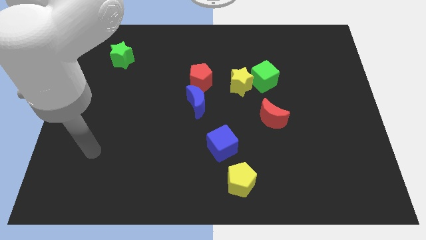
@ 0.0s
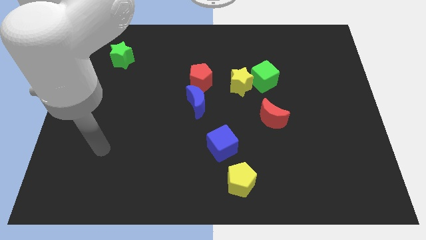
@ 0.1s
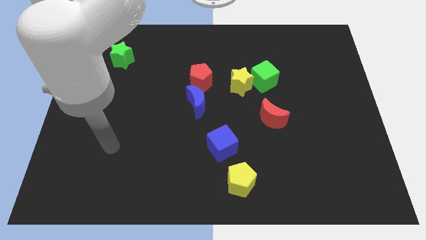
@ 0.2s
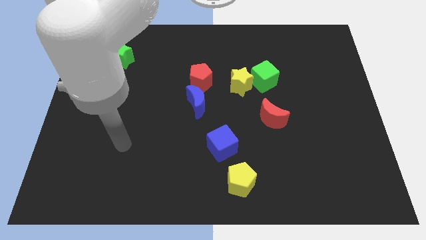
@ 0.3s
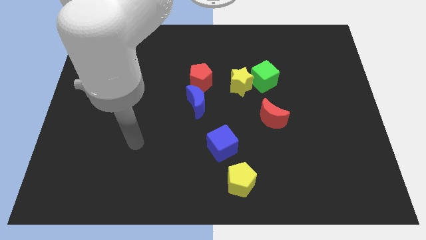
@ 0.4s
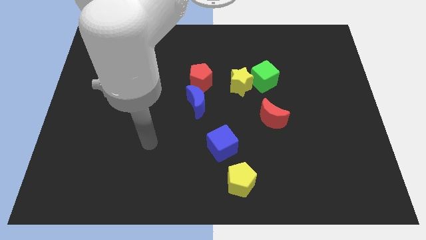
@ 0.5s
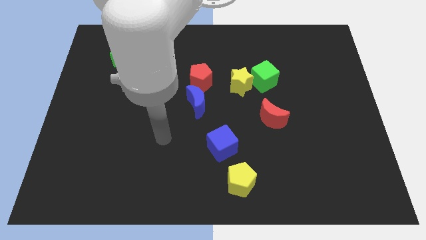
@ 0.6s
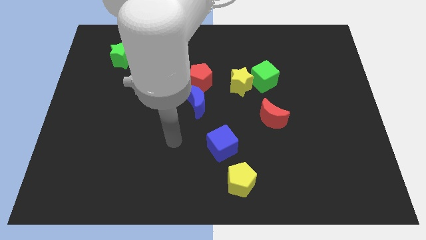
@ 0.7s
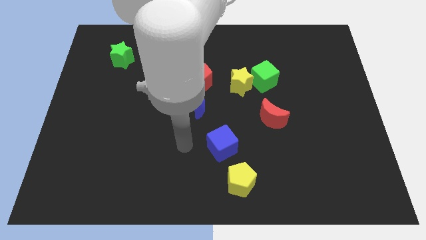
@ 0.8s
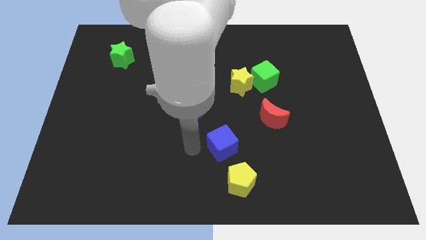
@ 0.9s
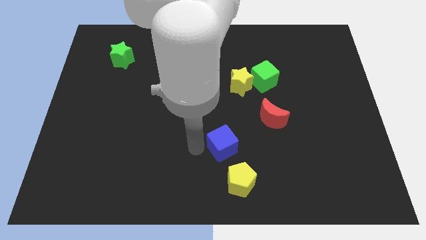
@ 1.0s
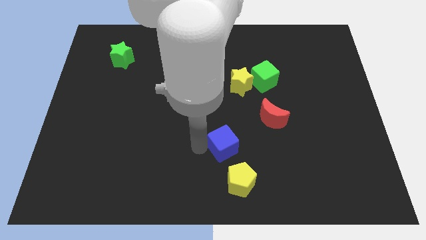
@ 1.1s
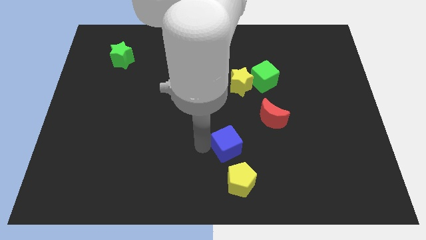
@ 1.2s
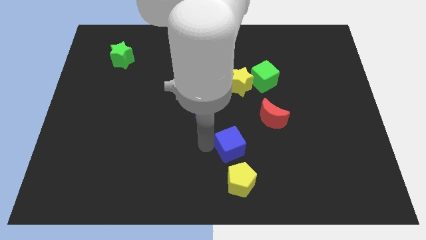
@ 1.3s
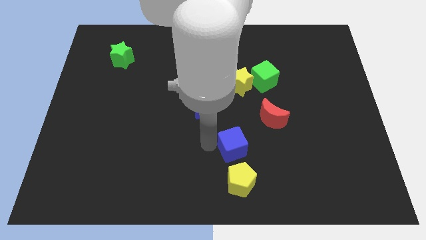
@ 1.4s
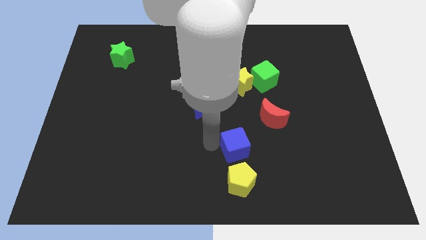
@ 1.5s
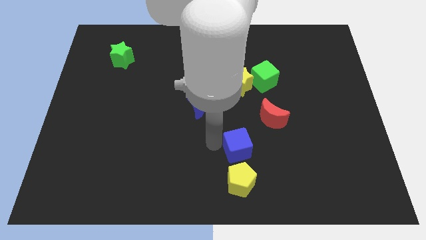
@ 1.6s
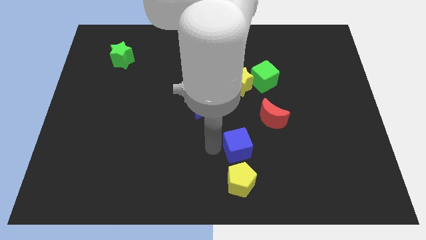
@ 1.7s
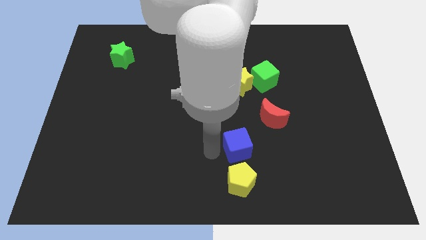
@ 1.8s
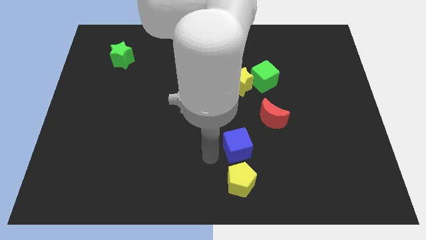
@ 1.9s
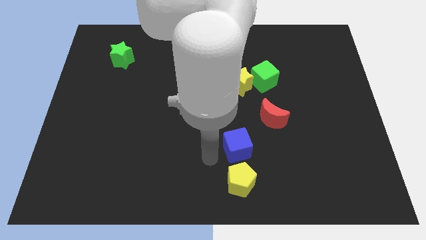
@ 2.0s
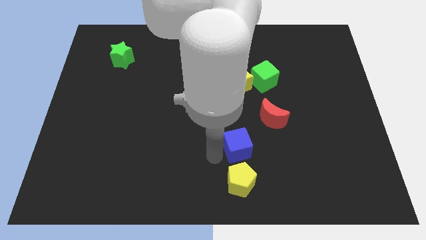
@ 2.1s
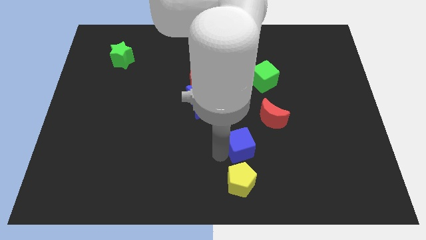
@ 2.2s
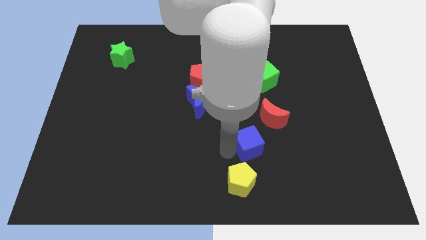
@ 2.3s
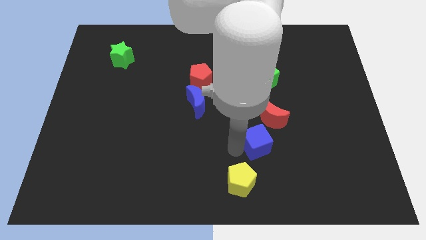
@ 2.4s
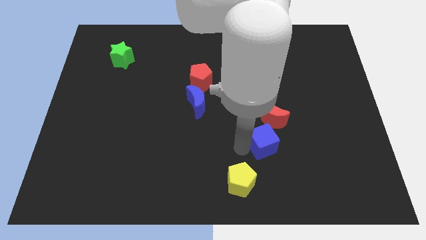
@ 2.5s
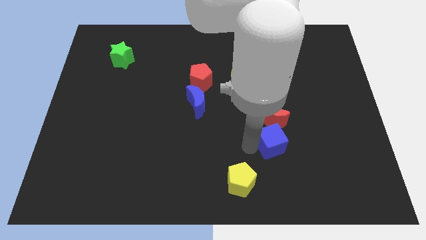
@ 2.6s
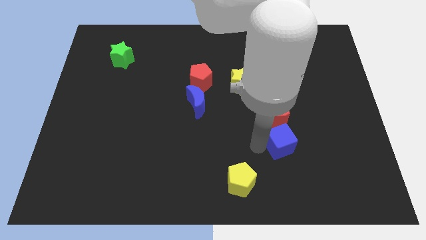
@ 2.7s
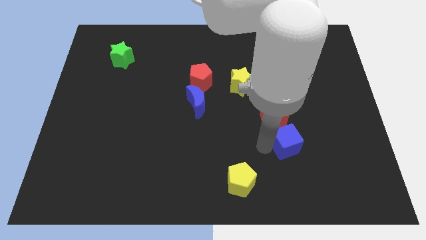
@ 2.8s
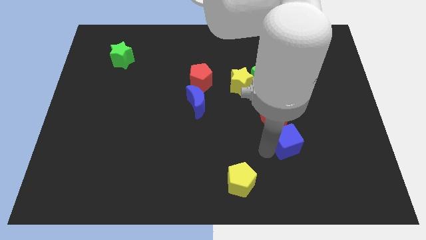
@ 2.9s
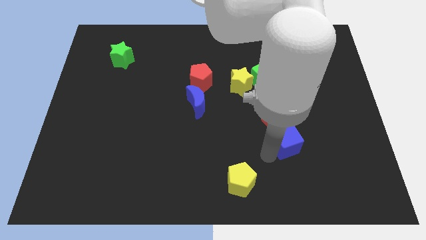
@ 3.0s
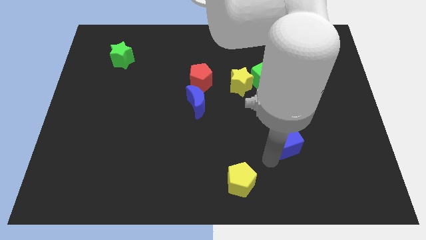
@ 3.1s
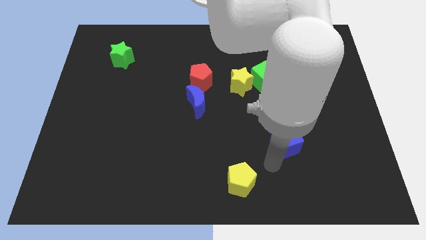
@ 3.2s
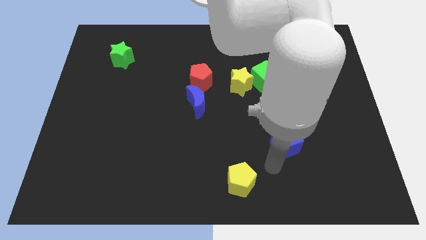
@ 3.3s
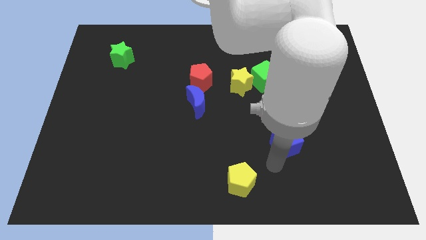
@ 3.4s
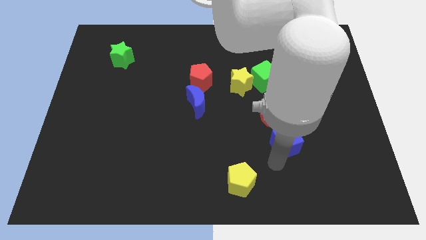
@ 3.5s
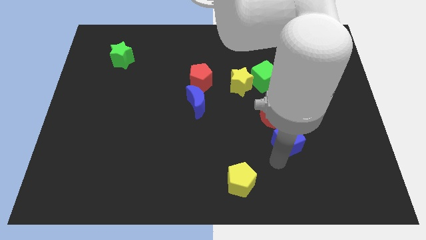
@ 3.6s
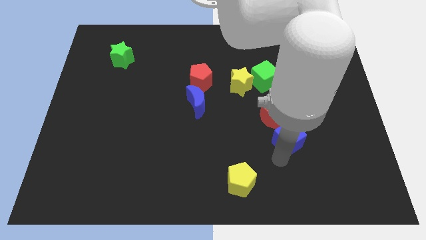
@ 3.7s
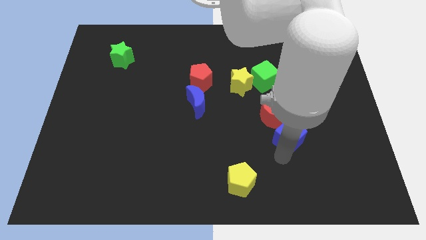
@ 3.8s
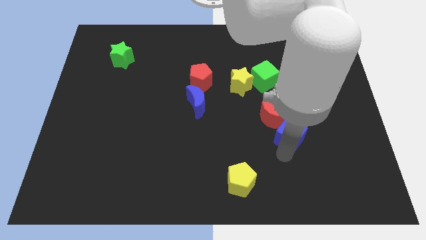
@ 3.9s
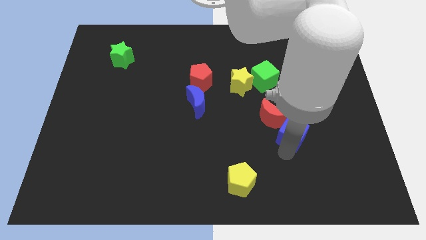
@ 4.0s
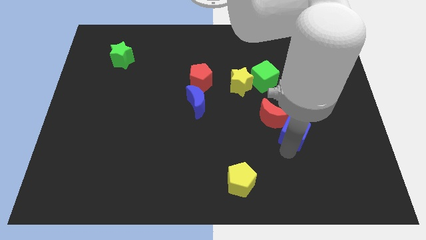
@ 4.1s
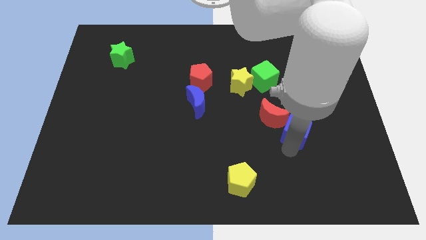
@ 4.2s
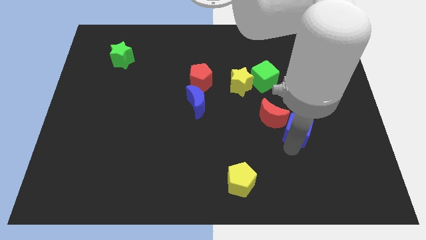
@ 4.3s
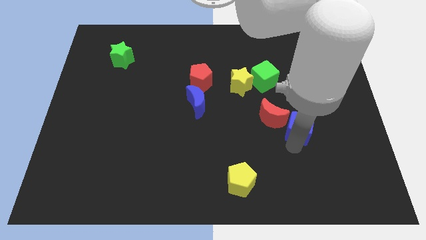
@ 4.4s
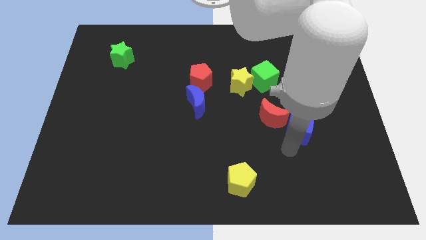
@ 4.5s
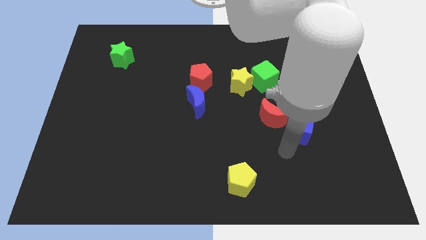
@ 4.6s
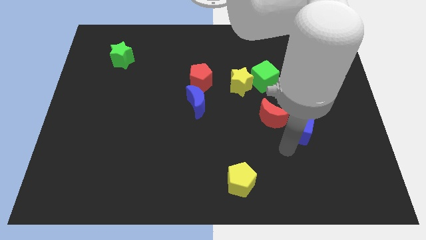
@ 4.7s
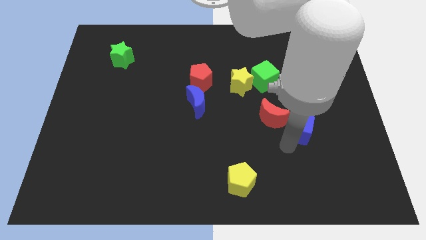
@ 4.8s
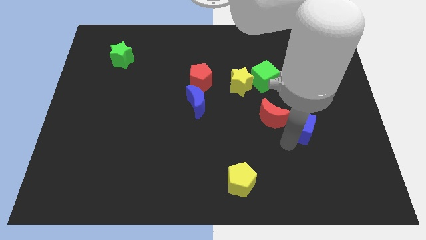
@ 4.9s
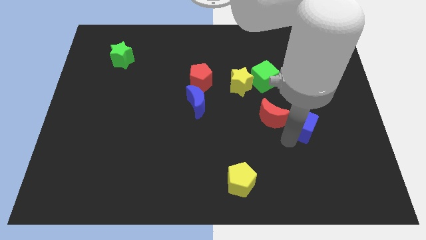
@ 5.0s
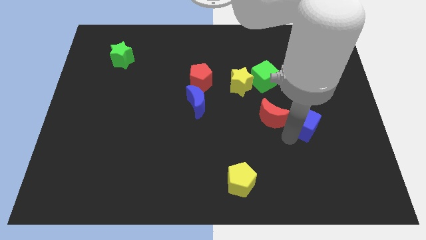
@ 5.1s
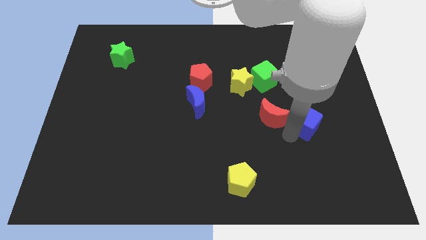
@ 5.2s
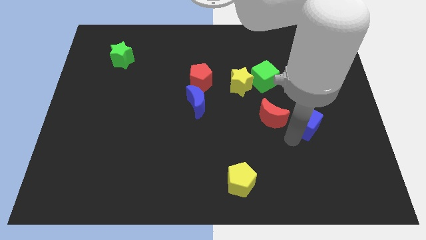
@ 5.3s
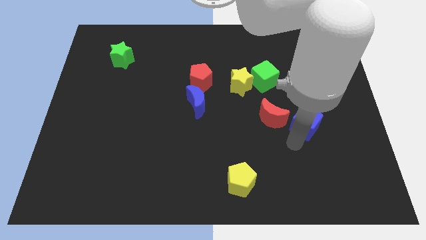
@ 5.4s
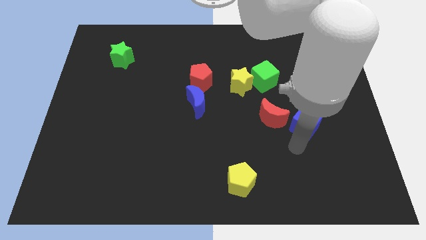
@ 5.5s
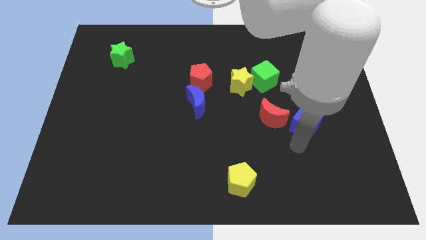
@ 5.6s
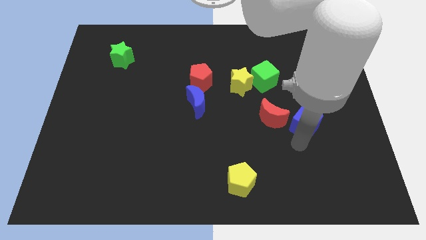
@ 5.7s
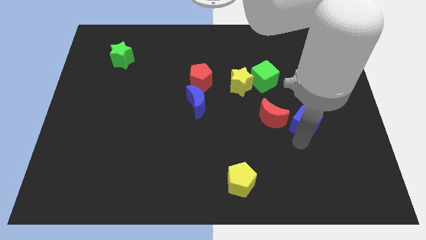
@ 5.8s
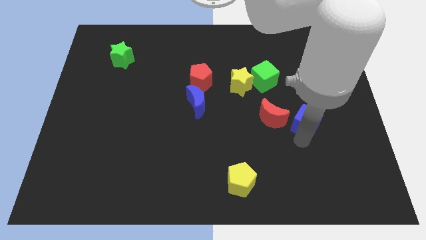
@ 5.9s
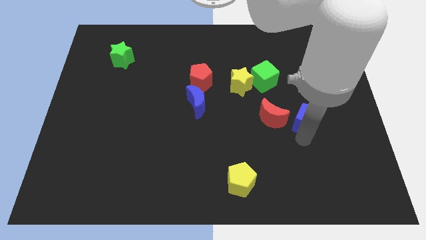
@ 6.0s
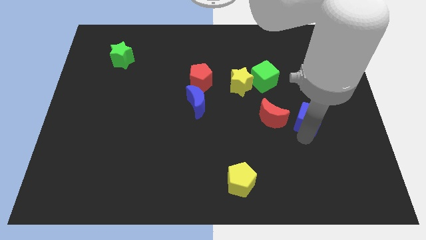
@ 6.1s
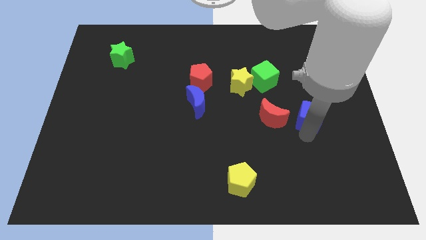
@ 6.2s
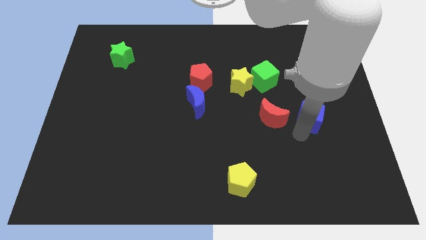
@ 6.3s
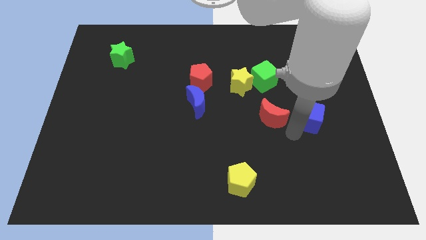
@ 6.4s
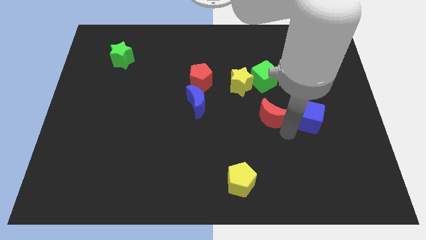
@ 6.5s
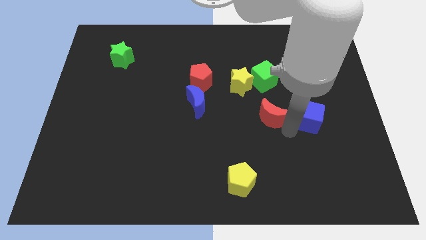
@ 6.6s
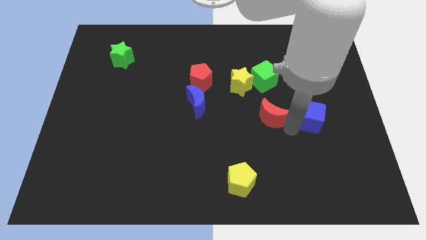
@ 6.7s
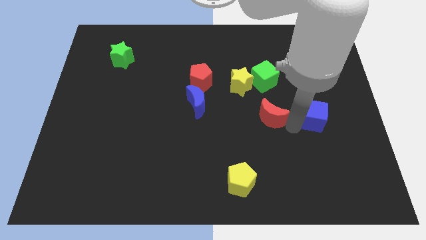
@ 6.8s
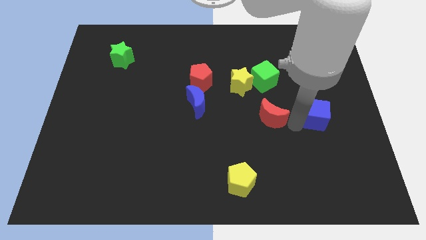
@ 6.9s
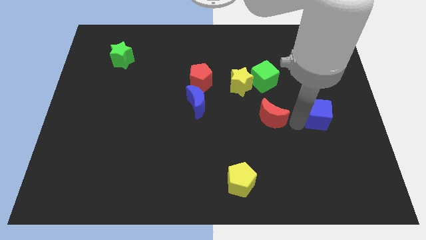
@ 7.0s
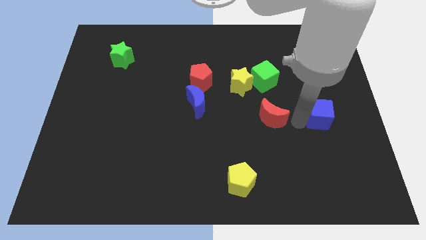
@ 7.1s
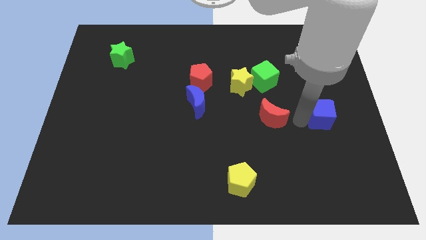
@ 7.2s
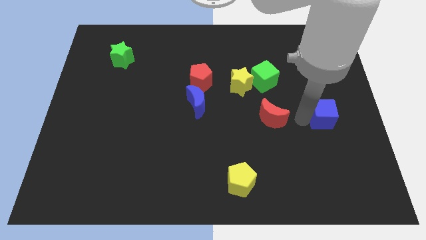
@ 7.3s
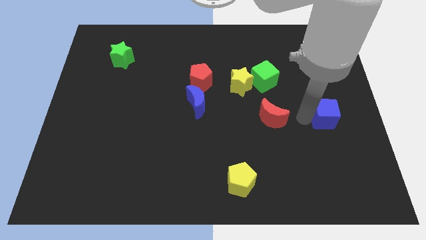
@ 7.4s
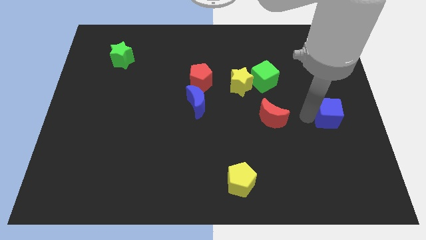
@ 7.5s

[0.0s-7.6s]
slide the blue cube to the right side of the board
